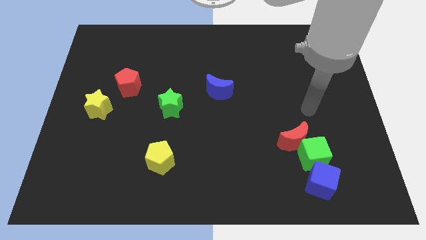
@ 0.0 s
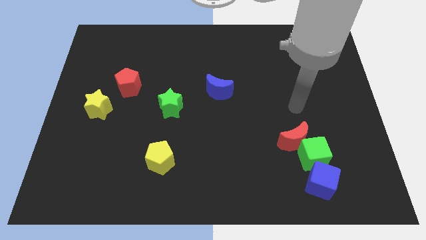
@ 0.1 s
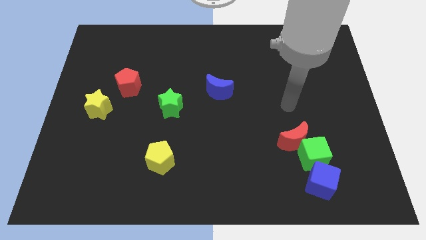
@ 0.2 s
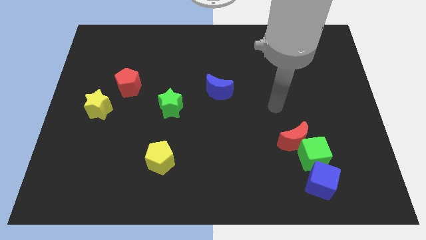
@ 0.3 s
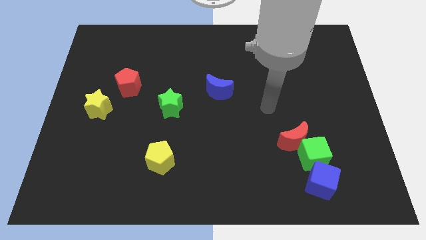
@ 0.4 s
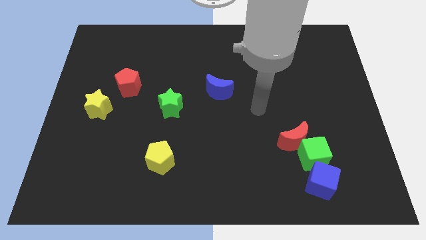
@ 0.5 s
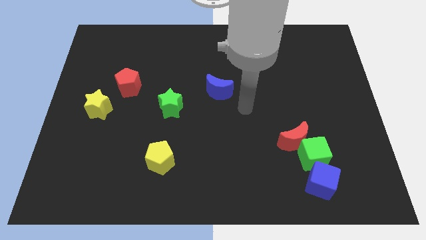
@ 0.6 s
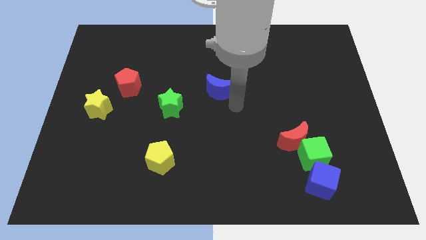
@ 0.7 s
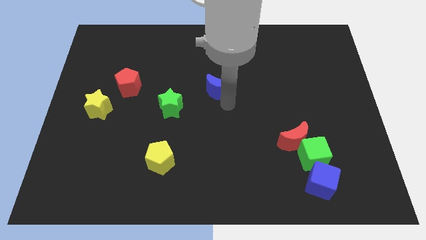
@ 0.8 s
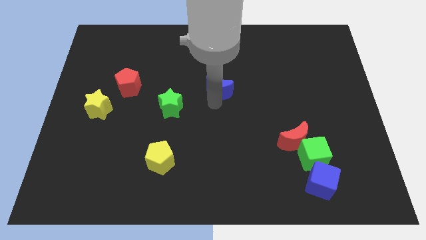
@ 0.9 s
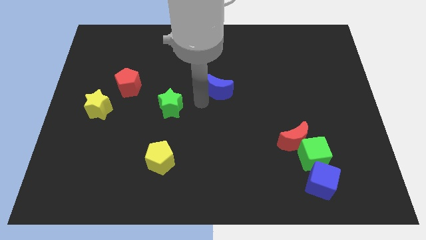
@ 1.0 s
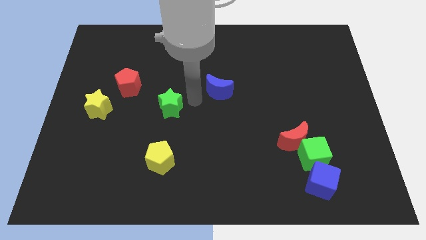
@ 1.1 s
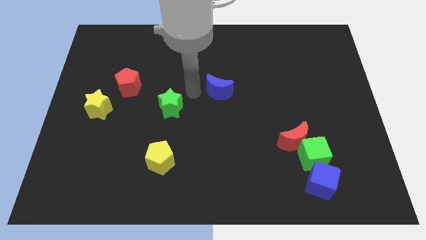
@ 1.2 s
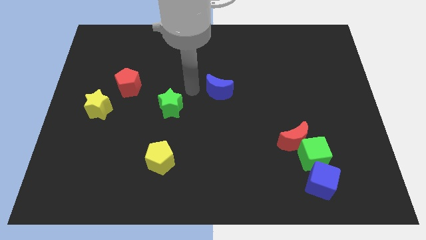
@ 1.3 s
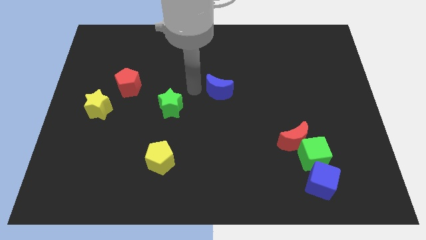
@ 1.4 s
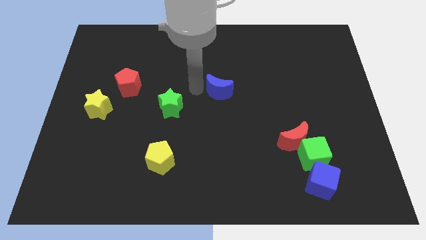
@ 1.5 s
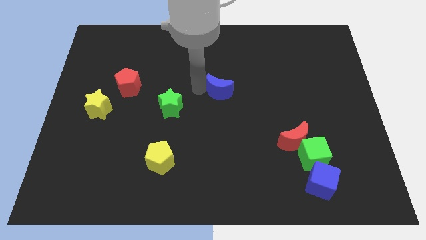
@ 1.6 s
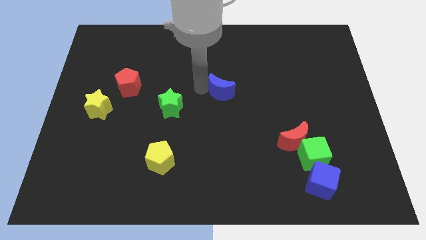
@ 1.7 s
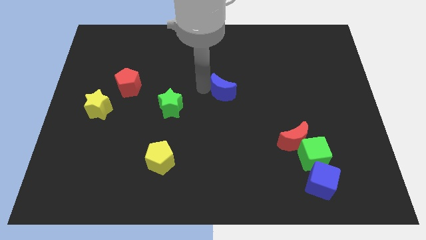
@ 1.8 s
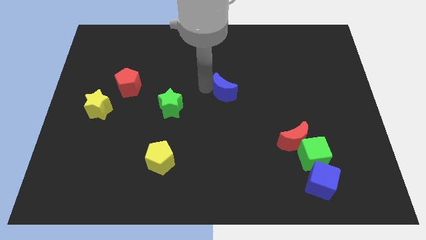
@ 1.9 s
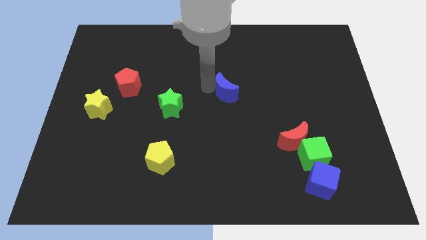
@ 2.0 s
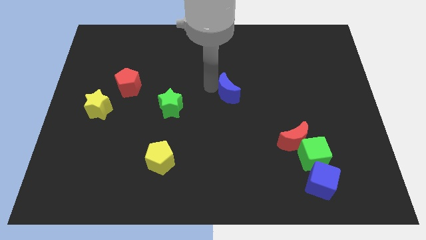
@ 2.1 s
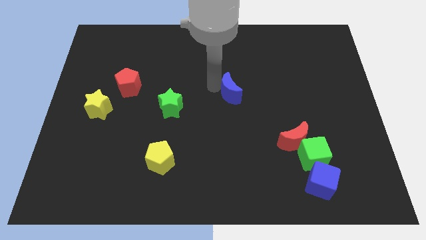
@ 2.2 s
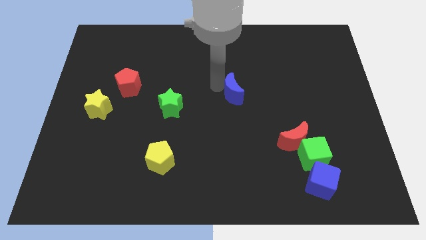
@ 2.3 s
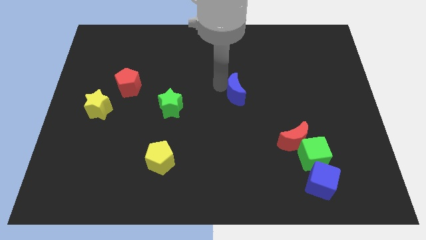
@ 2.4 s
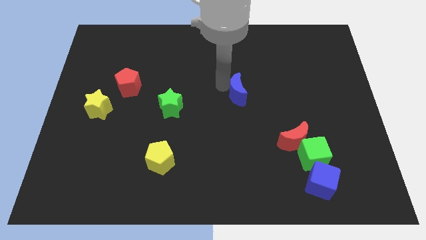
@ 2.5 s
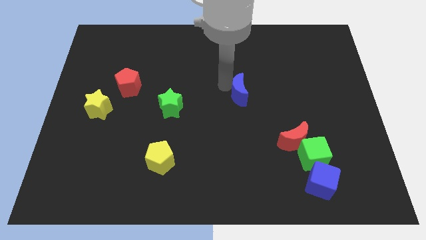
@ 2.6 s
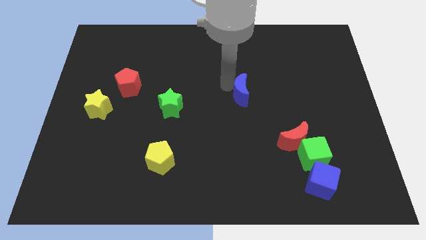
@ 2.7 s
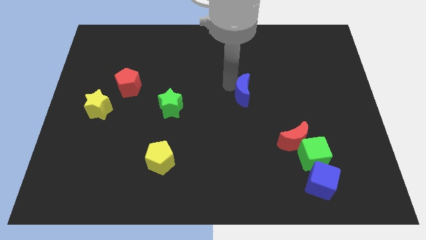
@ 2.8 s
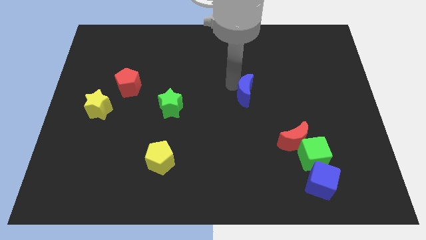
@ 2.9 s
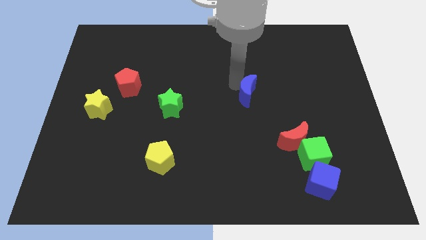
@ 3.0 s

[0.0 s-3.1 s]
push the blue moon to the right a bit

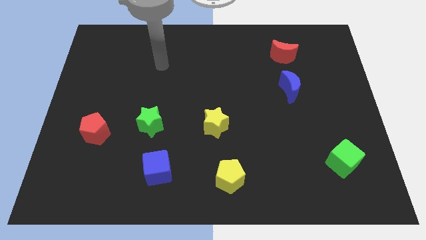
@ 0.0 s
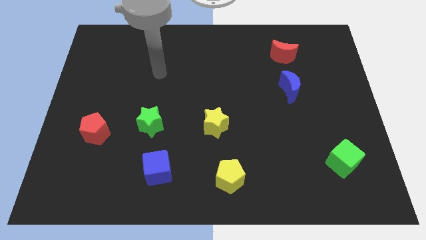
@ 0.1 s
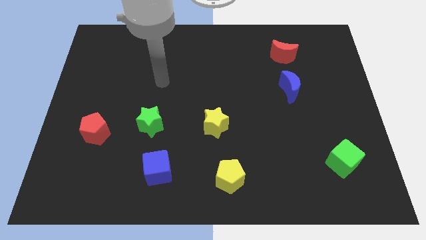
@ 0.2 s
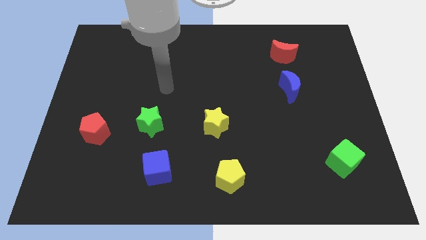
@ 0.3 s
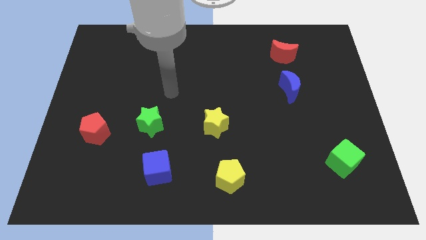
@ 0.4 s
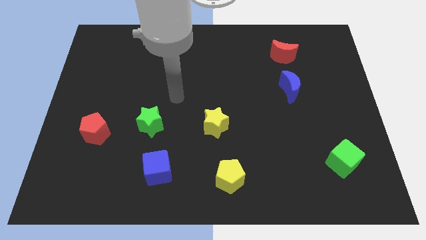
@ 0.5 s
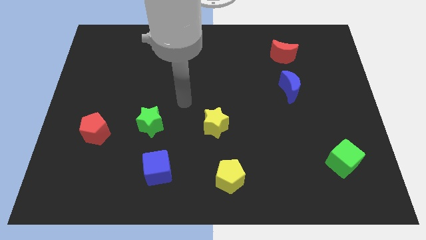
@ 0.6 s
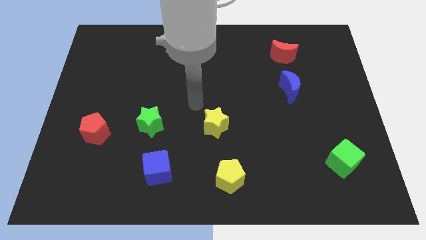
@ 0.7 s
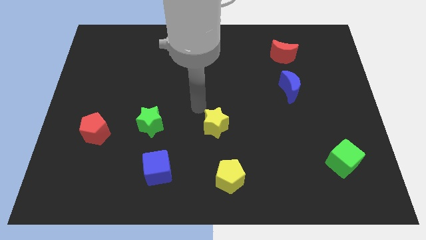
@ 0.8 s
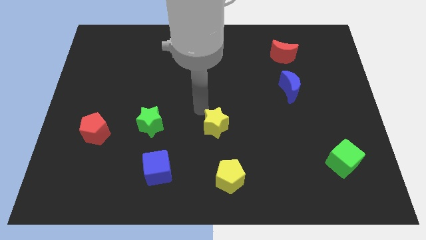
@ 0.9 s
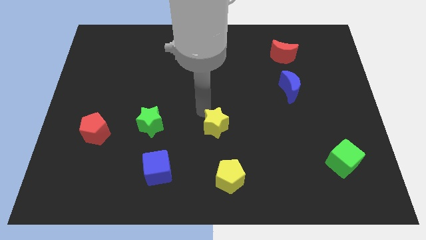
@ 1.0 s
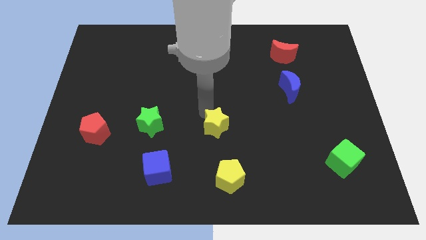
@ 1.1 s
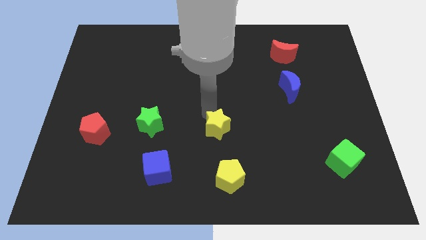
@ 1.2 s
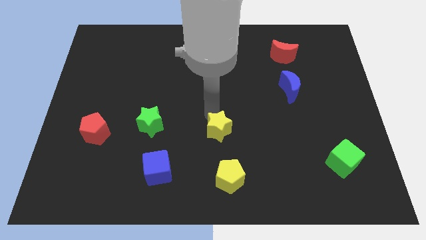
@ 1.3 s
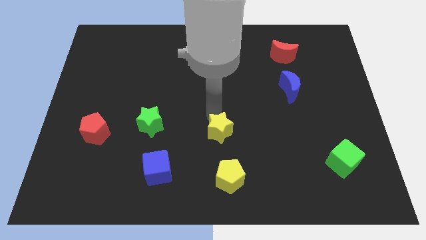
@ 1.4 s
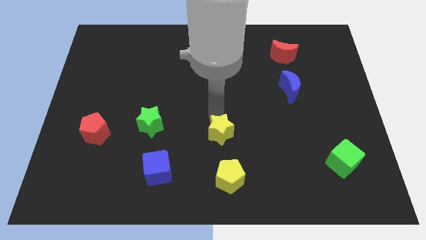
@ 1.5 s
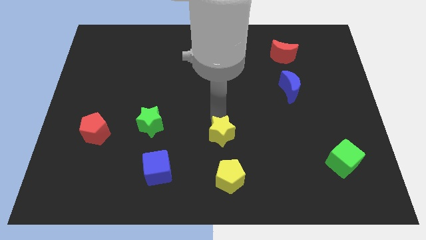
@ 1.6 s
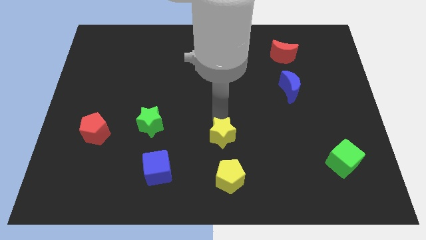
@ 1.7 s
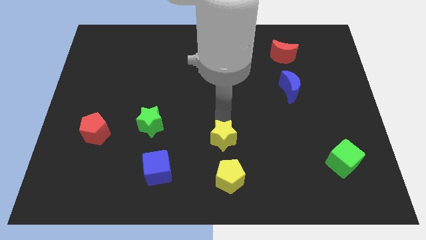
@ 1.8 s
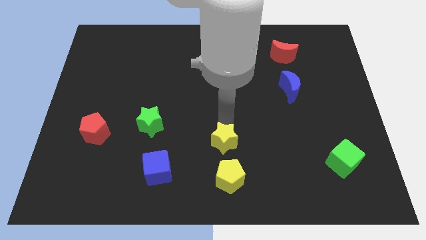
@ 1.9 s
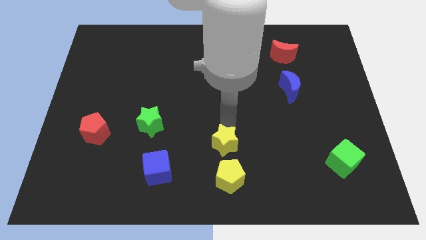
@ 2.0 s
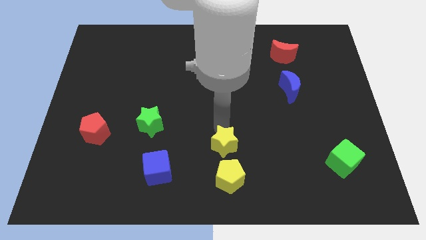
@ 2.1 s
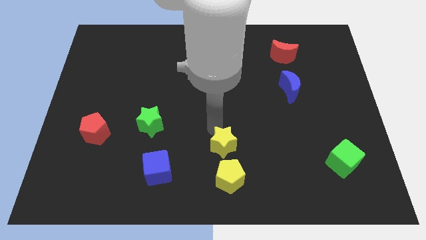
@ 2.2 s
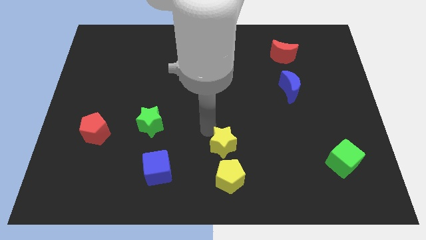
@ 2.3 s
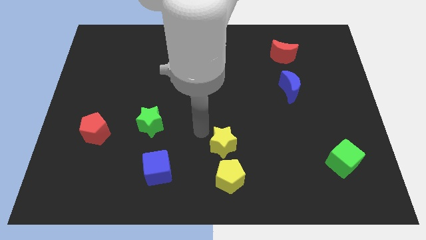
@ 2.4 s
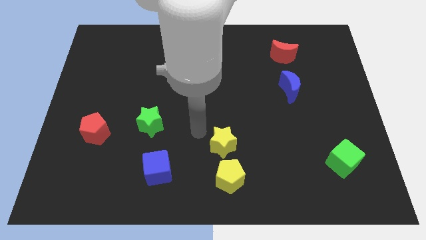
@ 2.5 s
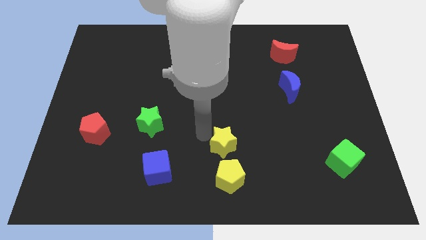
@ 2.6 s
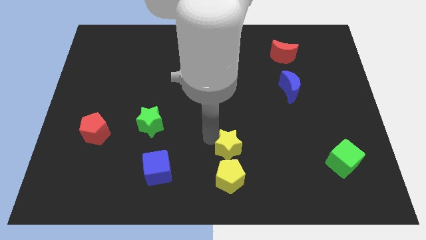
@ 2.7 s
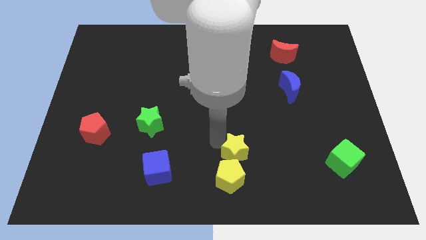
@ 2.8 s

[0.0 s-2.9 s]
move the yellow star slightly diagonally downwards and to the right

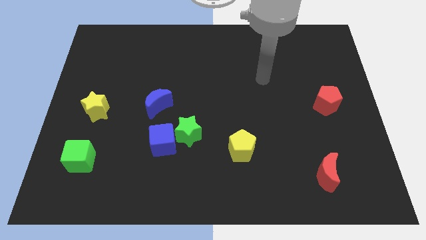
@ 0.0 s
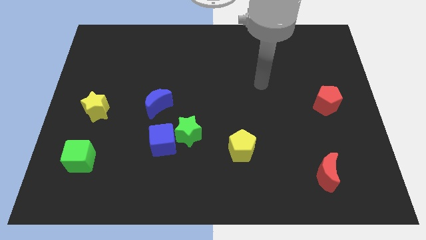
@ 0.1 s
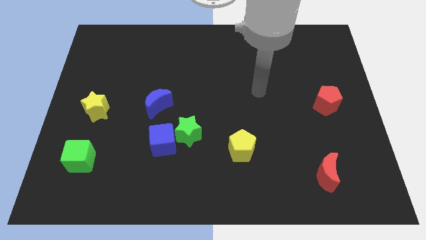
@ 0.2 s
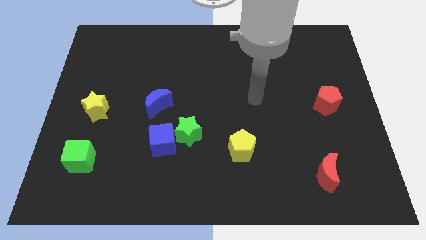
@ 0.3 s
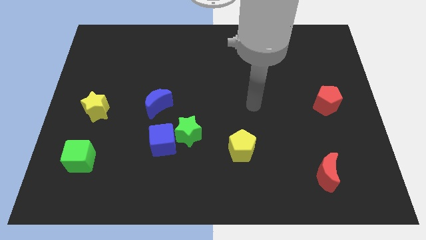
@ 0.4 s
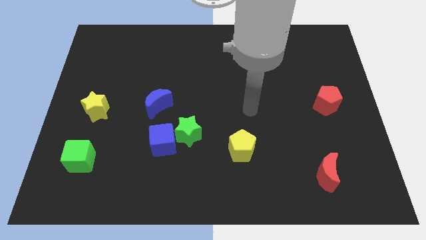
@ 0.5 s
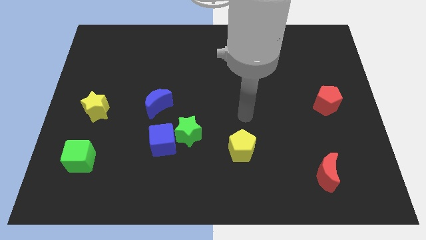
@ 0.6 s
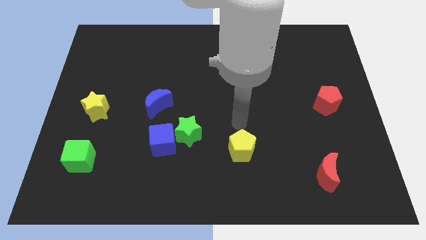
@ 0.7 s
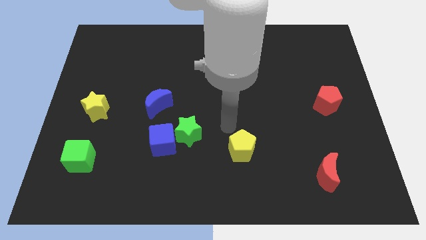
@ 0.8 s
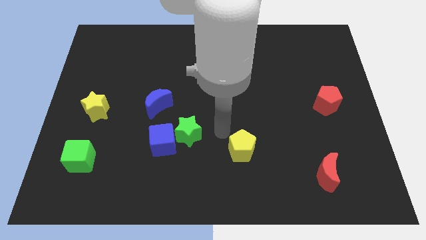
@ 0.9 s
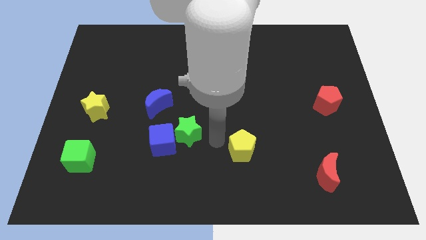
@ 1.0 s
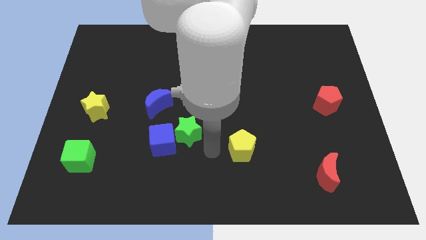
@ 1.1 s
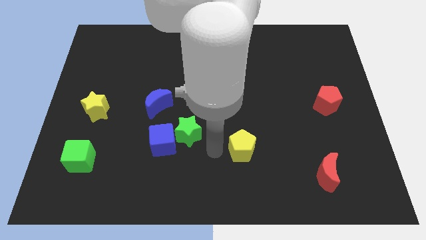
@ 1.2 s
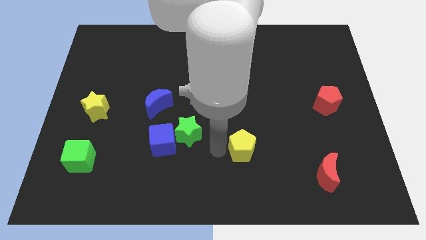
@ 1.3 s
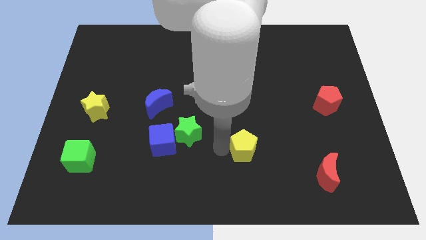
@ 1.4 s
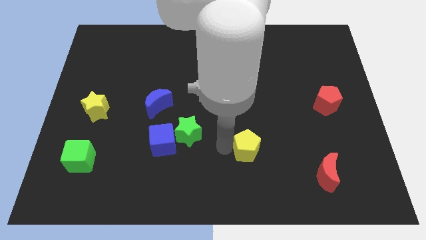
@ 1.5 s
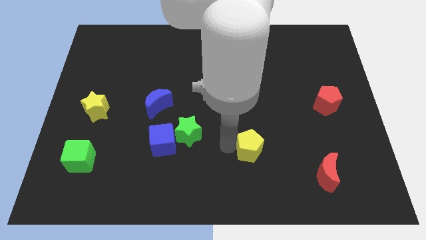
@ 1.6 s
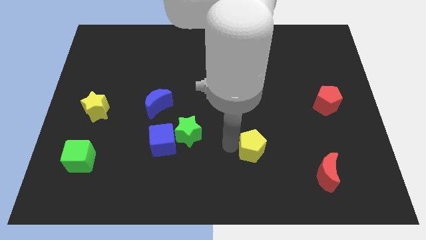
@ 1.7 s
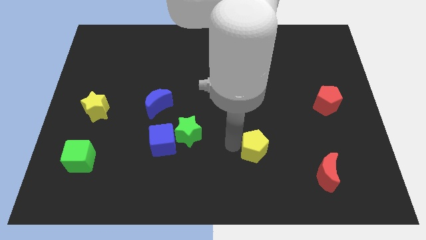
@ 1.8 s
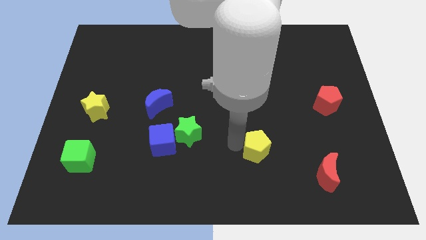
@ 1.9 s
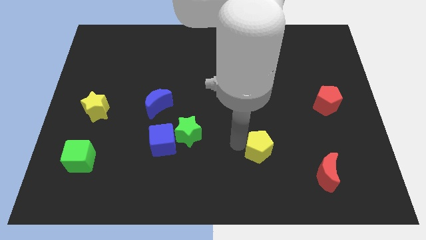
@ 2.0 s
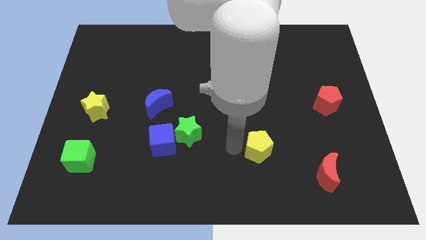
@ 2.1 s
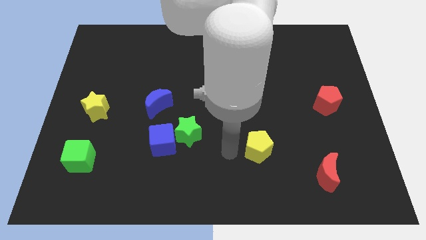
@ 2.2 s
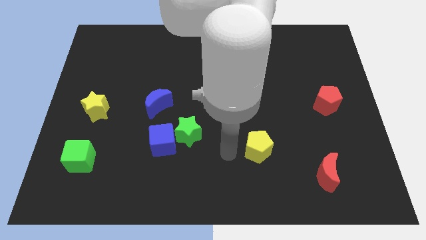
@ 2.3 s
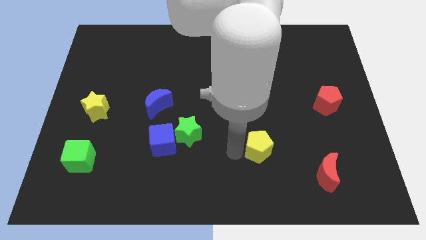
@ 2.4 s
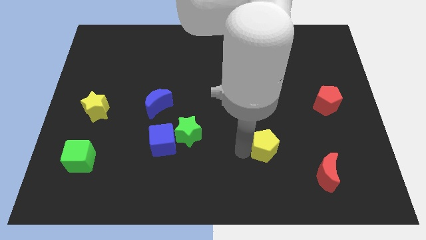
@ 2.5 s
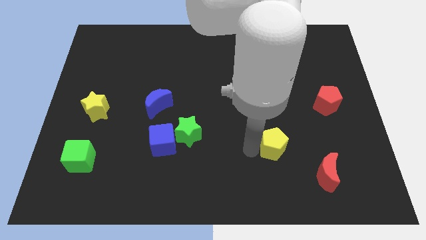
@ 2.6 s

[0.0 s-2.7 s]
slightly move the yellow pentagon right
